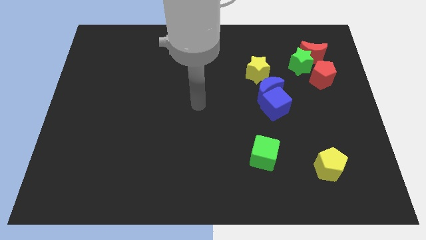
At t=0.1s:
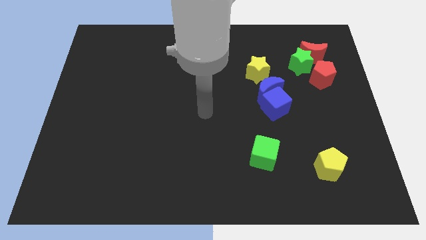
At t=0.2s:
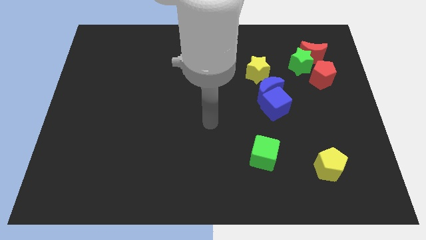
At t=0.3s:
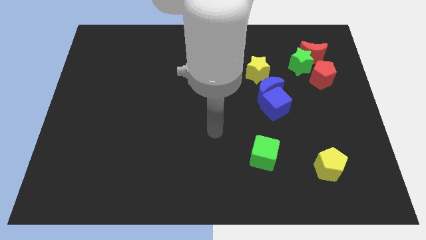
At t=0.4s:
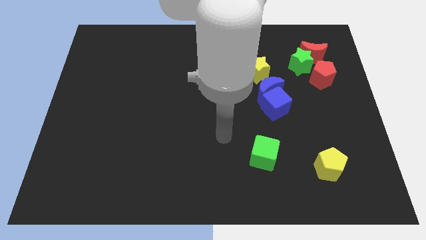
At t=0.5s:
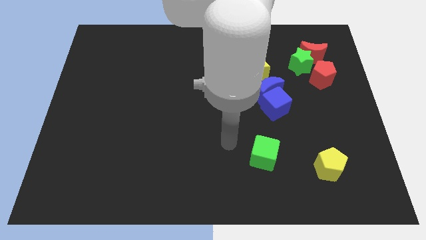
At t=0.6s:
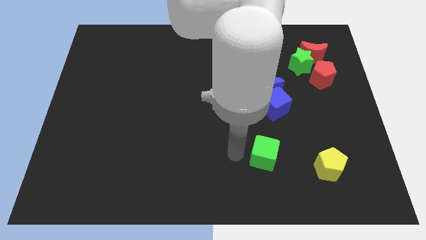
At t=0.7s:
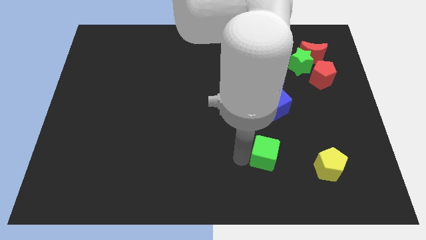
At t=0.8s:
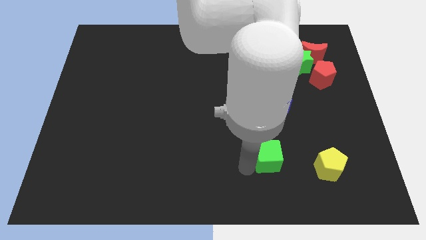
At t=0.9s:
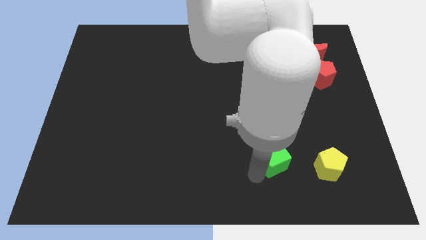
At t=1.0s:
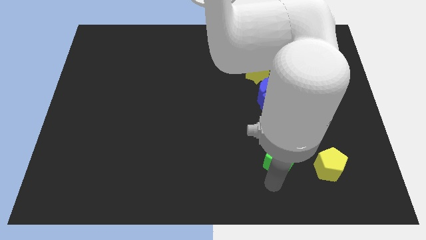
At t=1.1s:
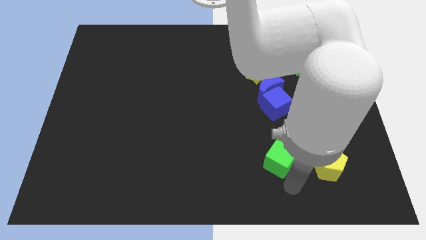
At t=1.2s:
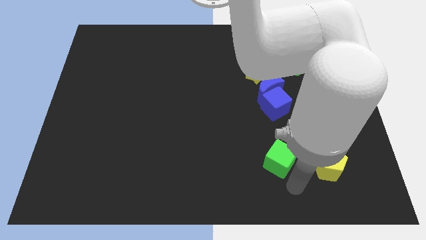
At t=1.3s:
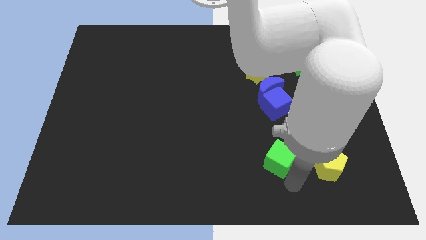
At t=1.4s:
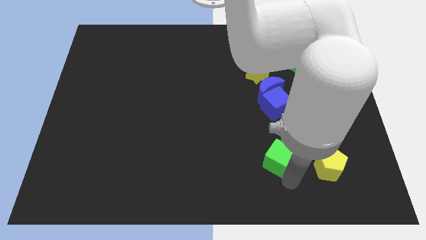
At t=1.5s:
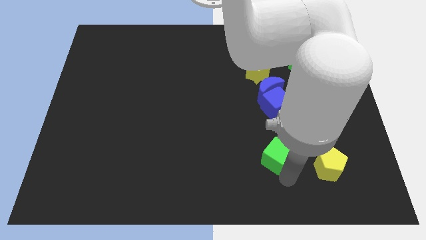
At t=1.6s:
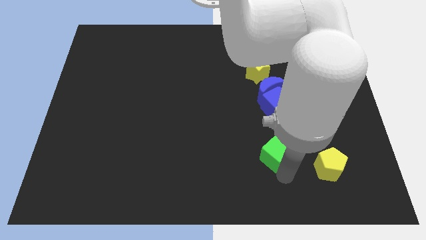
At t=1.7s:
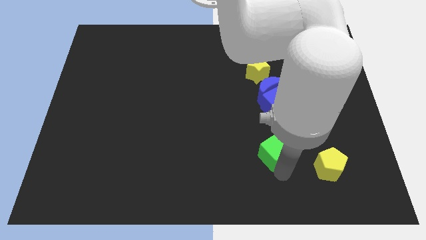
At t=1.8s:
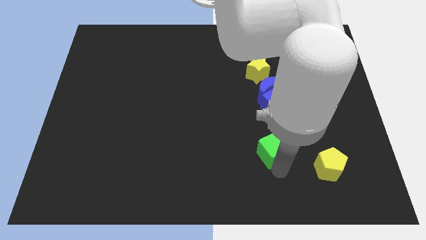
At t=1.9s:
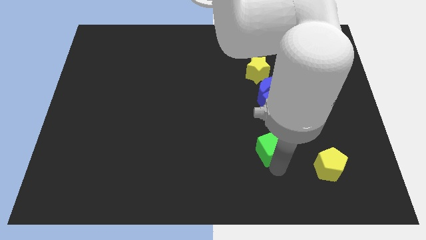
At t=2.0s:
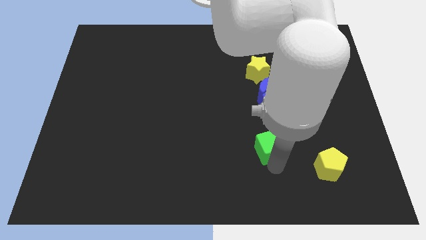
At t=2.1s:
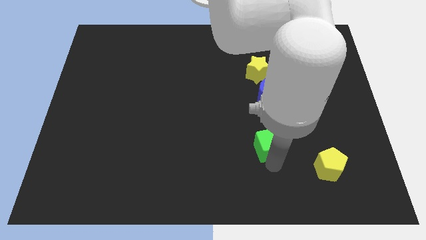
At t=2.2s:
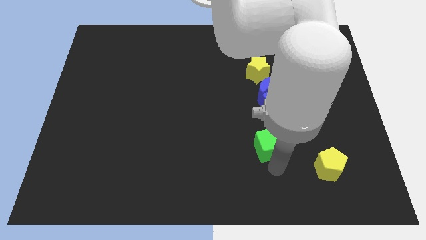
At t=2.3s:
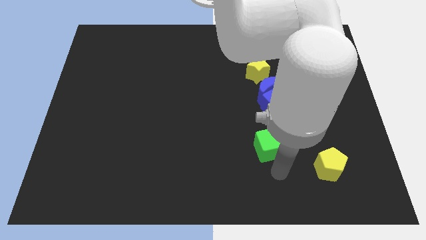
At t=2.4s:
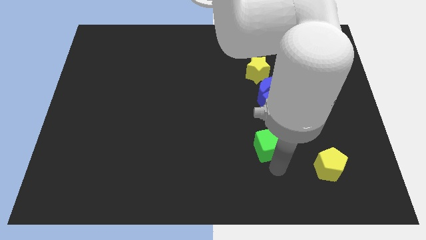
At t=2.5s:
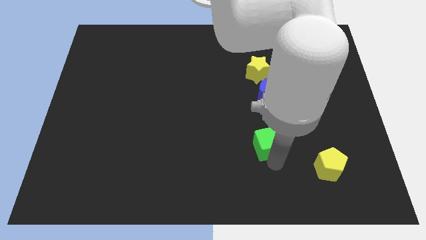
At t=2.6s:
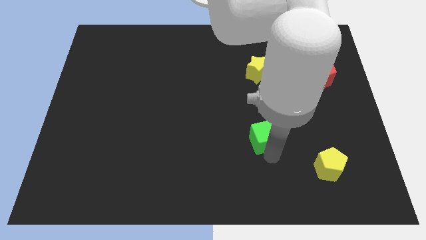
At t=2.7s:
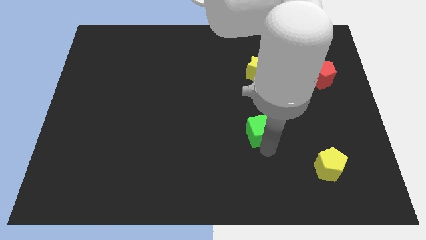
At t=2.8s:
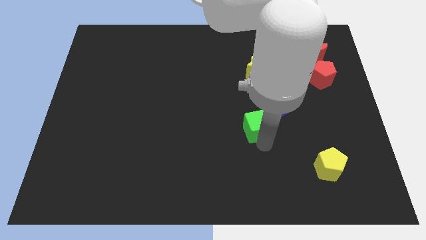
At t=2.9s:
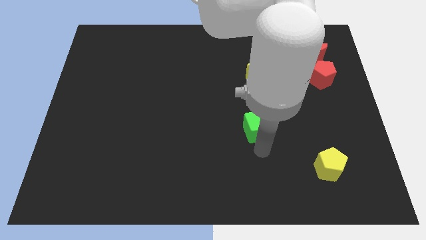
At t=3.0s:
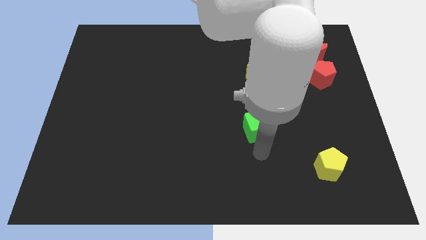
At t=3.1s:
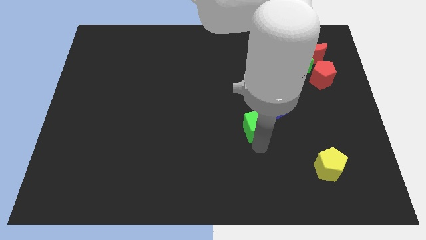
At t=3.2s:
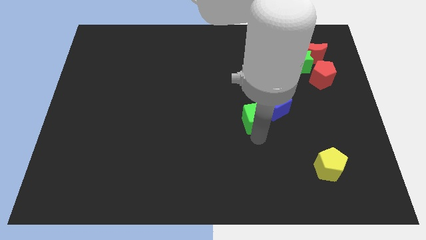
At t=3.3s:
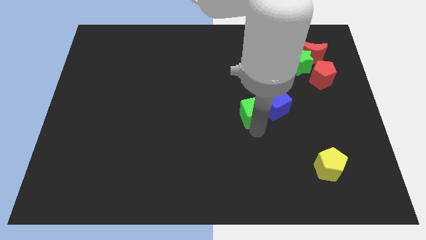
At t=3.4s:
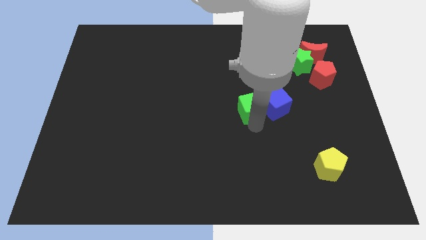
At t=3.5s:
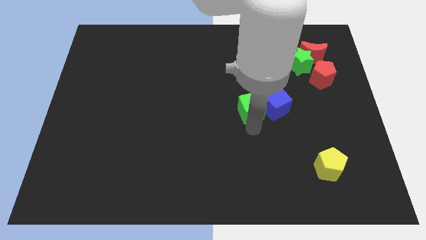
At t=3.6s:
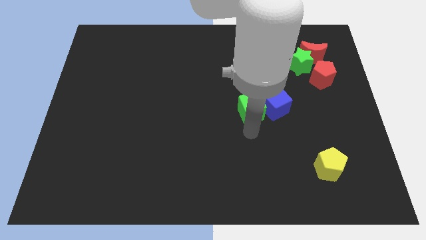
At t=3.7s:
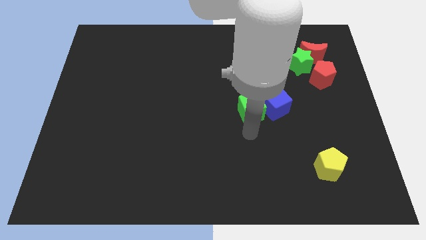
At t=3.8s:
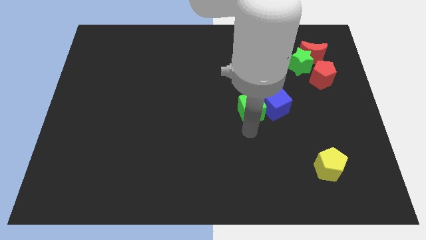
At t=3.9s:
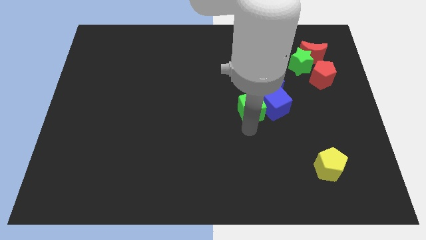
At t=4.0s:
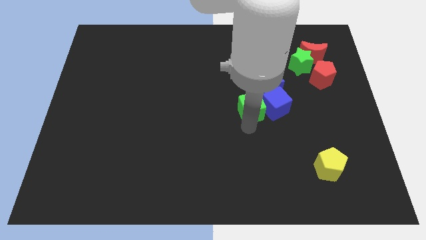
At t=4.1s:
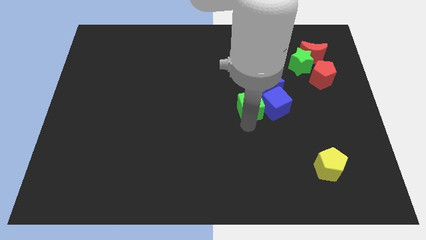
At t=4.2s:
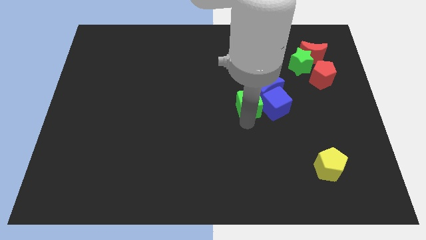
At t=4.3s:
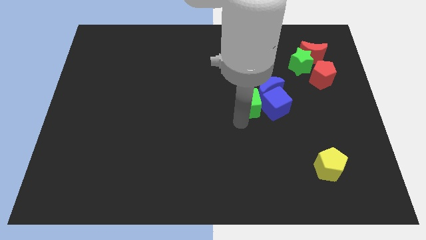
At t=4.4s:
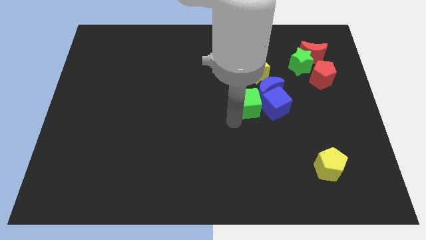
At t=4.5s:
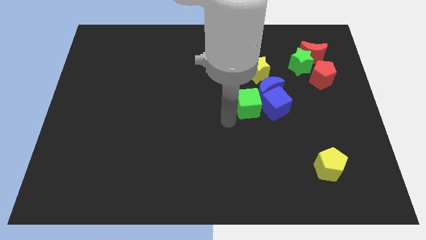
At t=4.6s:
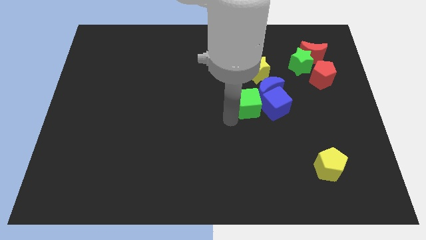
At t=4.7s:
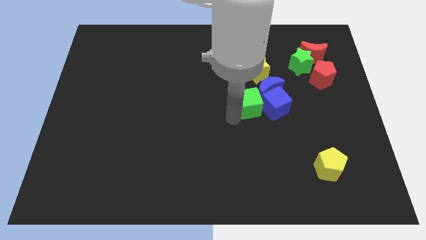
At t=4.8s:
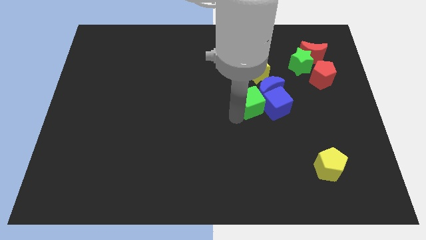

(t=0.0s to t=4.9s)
put the green cube close to the blue moon

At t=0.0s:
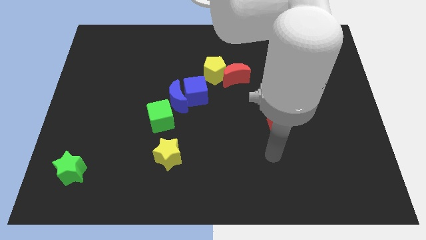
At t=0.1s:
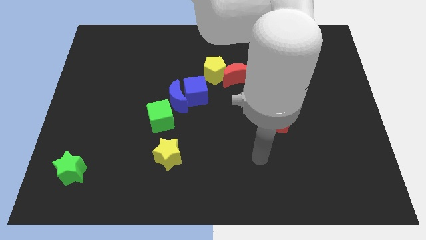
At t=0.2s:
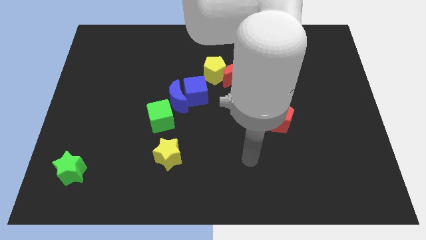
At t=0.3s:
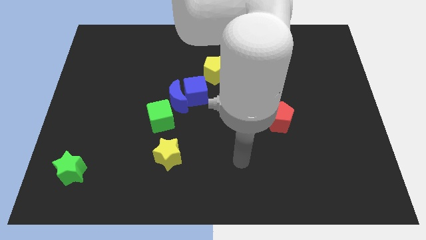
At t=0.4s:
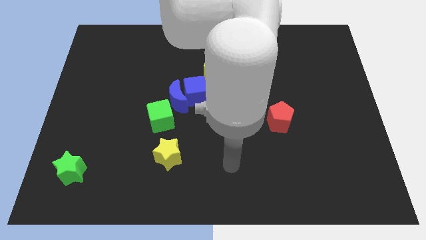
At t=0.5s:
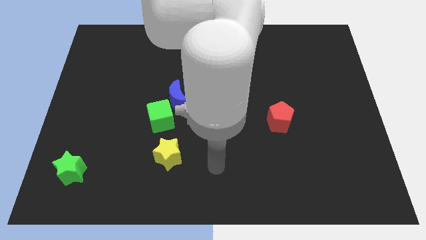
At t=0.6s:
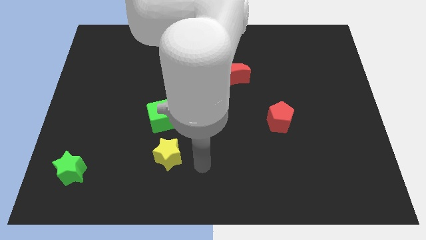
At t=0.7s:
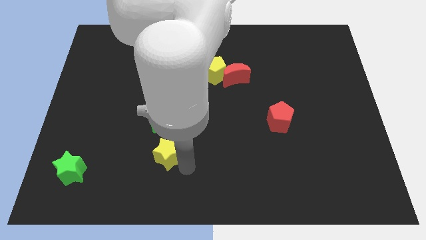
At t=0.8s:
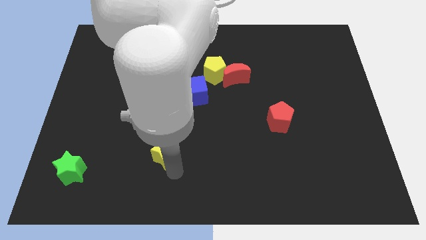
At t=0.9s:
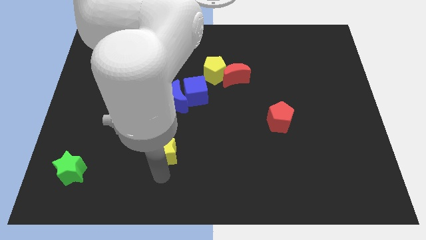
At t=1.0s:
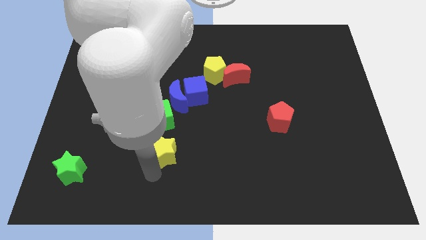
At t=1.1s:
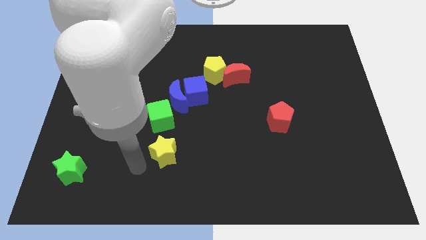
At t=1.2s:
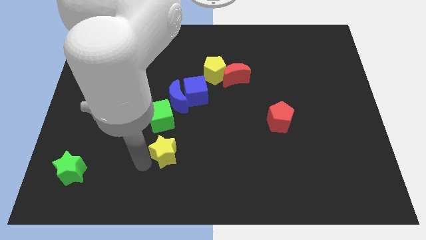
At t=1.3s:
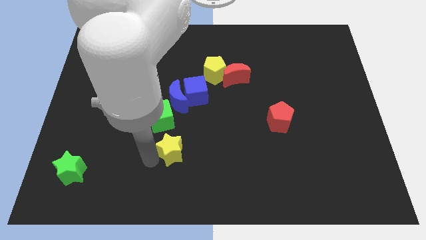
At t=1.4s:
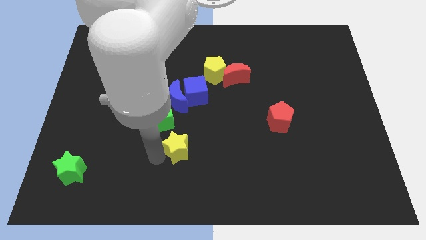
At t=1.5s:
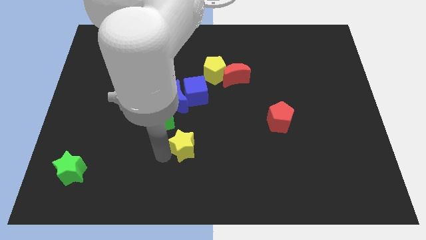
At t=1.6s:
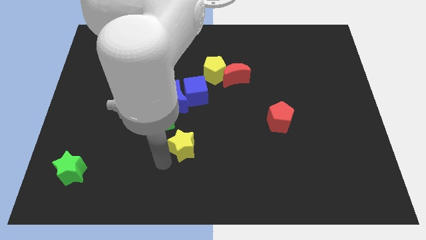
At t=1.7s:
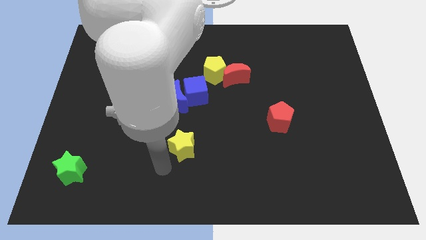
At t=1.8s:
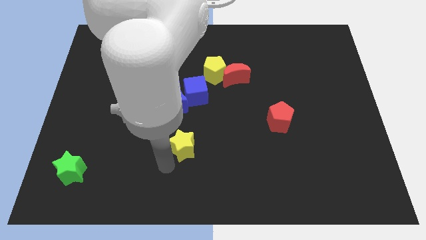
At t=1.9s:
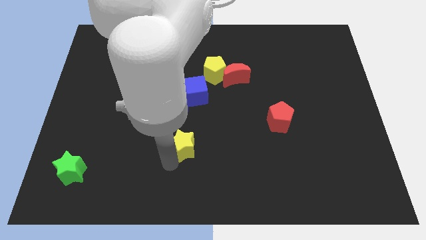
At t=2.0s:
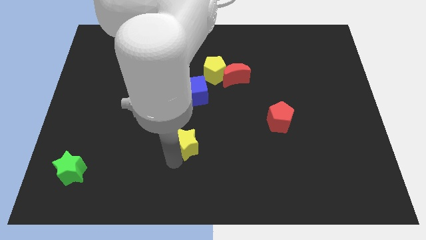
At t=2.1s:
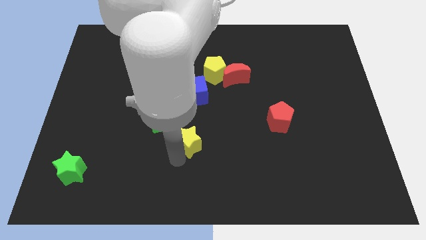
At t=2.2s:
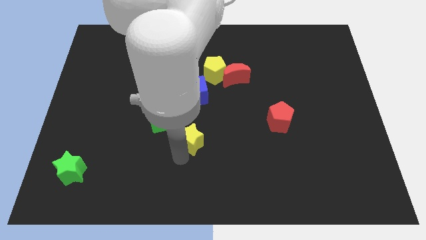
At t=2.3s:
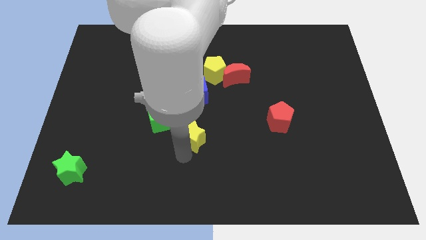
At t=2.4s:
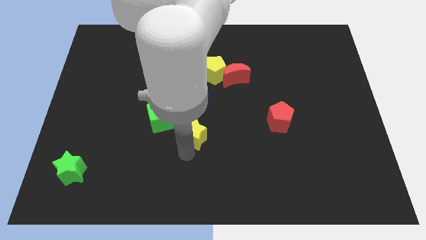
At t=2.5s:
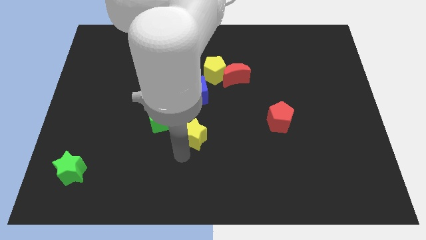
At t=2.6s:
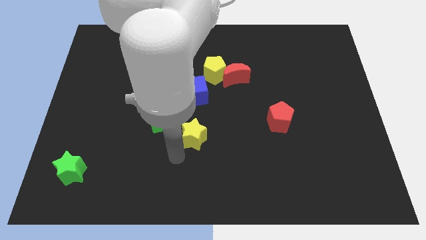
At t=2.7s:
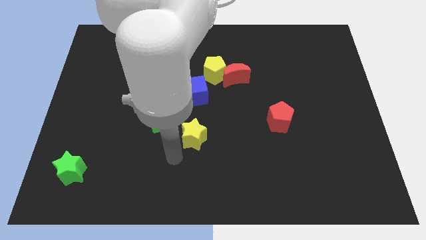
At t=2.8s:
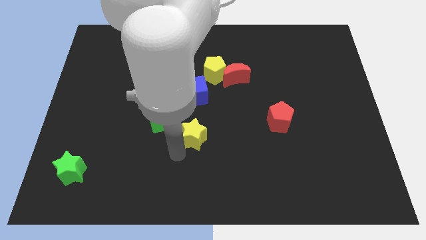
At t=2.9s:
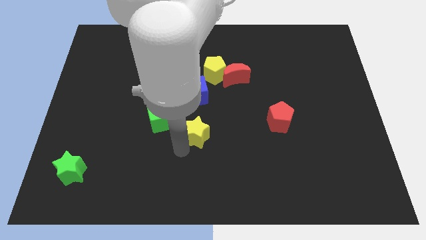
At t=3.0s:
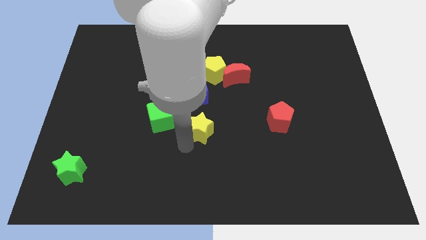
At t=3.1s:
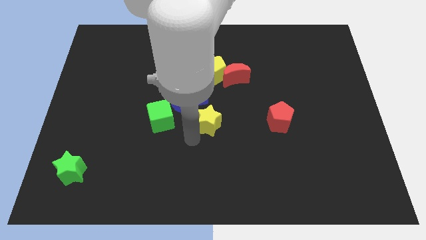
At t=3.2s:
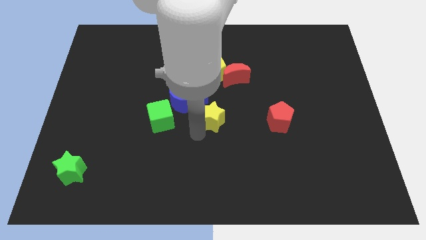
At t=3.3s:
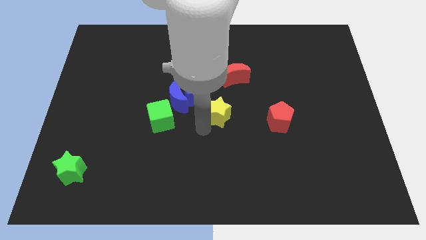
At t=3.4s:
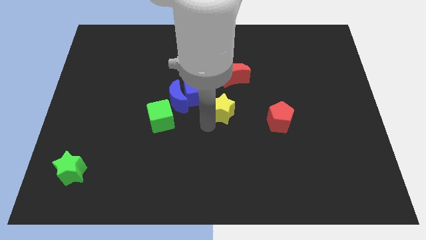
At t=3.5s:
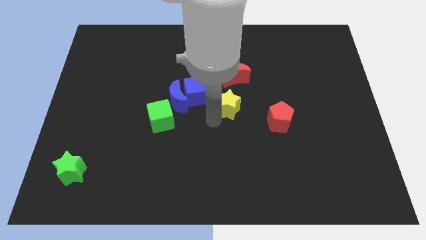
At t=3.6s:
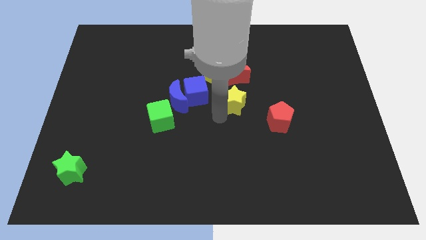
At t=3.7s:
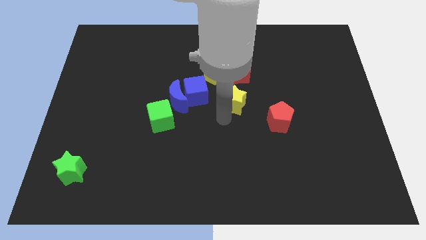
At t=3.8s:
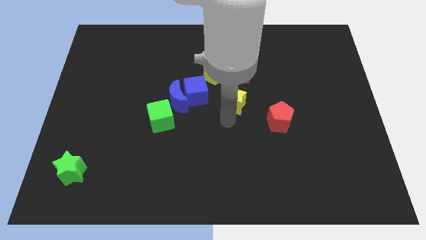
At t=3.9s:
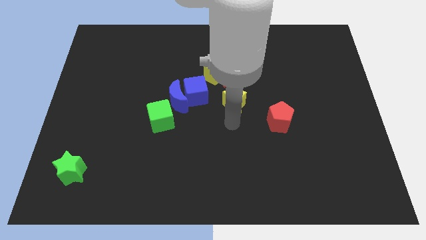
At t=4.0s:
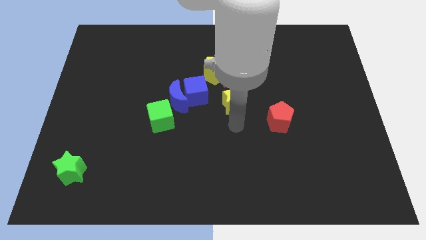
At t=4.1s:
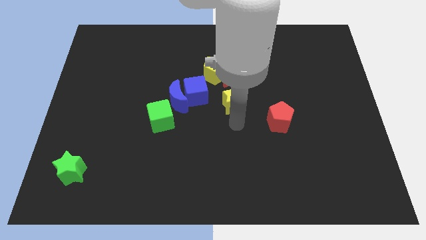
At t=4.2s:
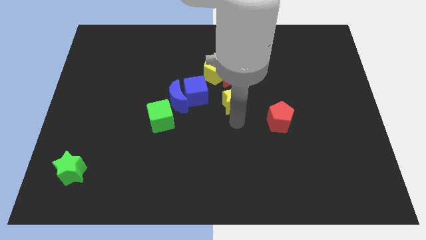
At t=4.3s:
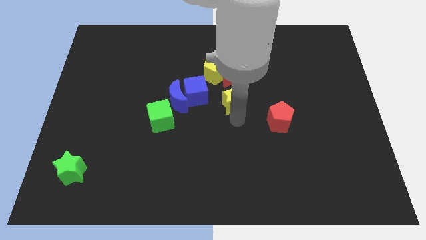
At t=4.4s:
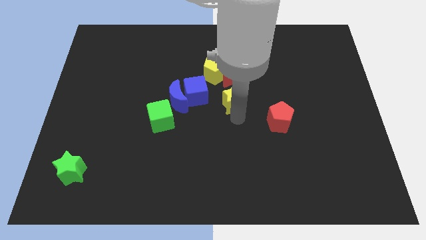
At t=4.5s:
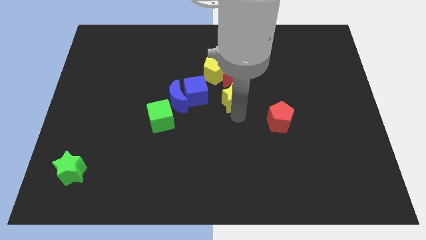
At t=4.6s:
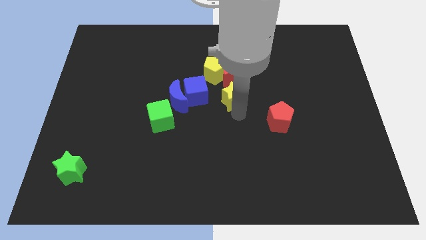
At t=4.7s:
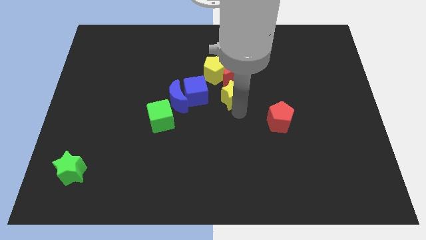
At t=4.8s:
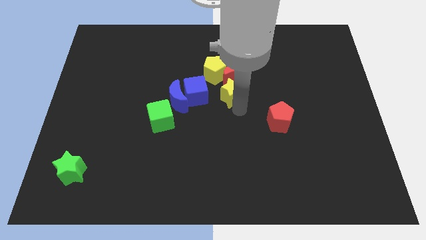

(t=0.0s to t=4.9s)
slide the yellow star close to the red moon
